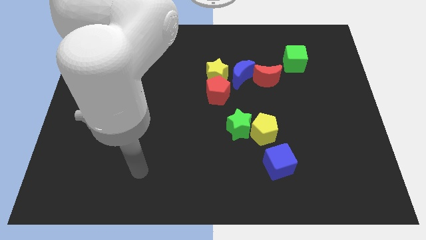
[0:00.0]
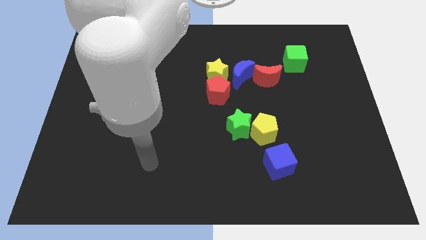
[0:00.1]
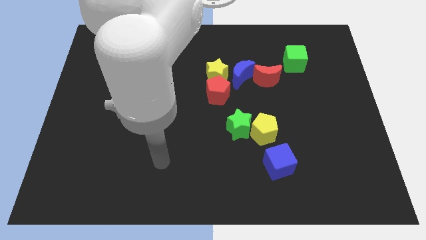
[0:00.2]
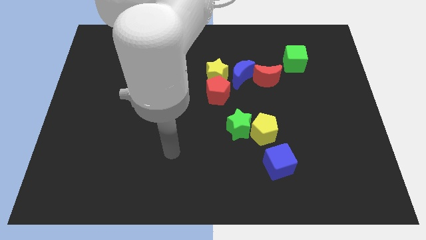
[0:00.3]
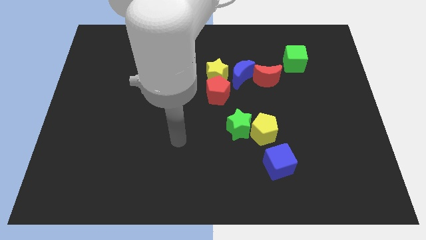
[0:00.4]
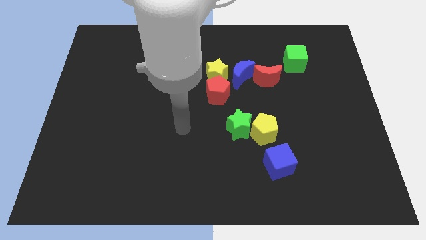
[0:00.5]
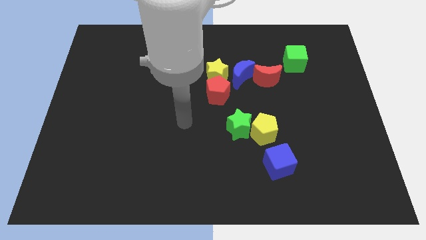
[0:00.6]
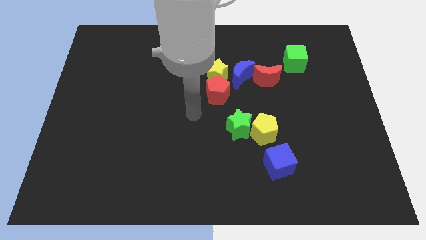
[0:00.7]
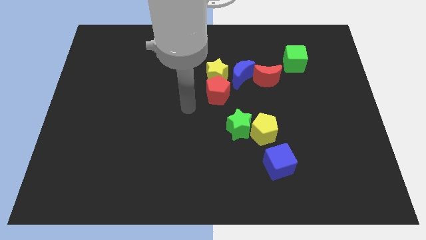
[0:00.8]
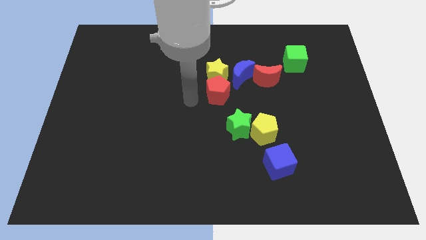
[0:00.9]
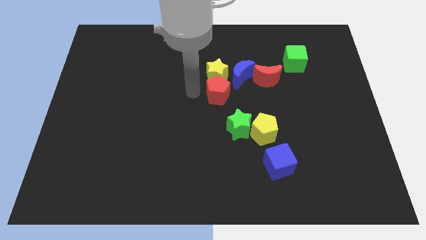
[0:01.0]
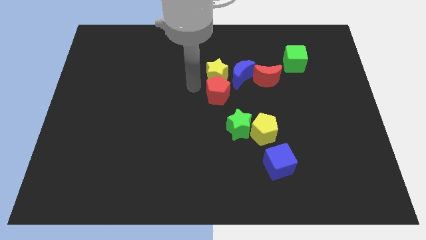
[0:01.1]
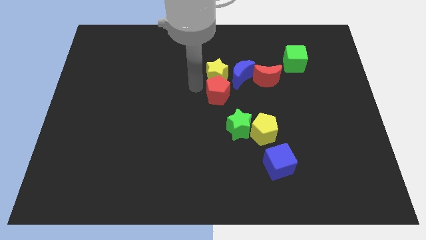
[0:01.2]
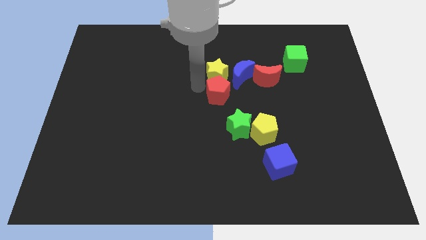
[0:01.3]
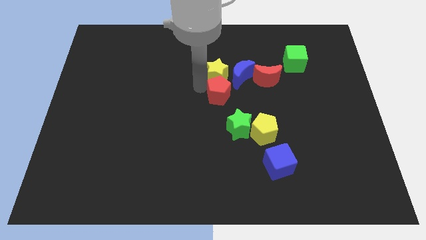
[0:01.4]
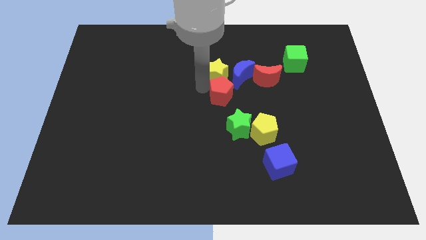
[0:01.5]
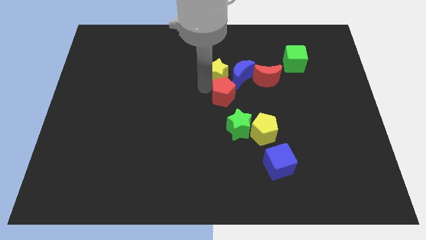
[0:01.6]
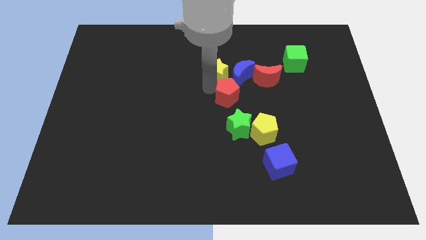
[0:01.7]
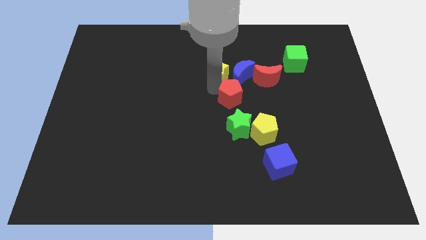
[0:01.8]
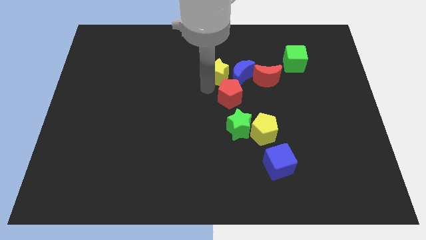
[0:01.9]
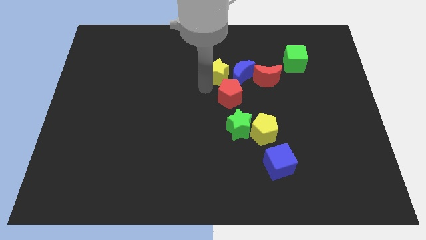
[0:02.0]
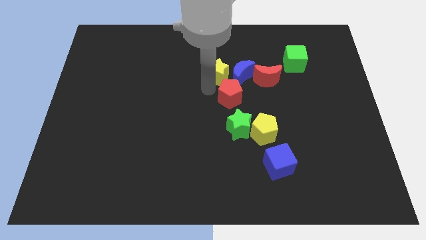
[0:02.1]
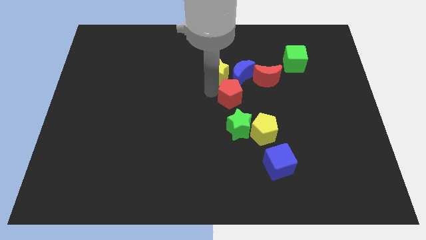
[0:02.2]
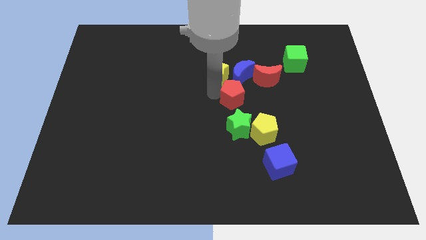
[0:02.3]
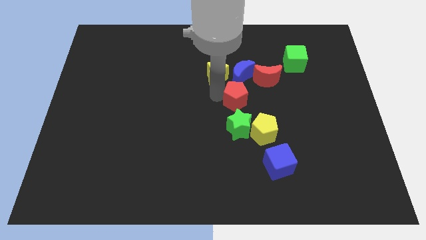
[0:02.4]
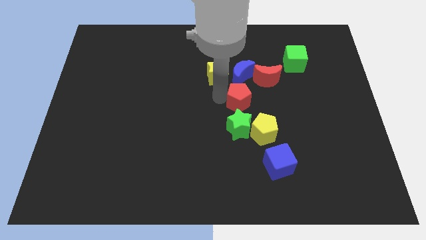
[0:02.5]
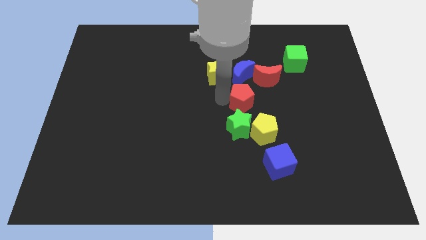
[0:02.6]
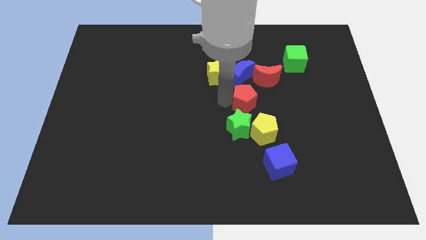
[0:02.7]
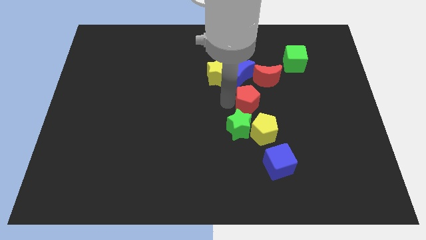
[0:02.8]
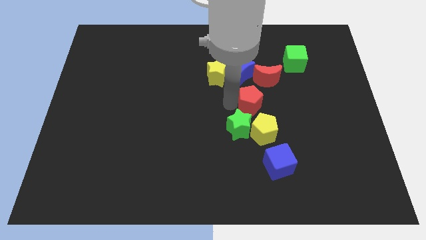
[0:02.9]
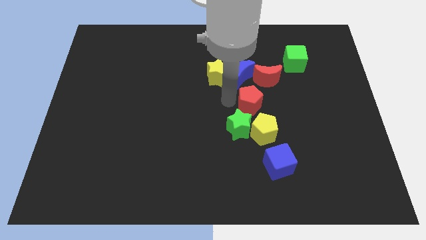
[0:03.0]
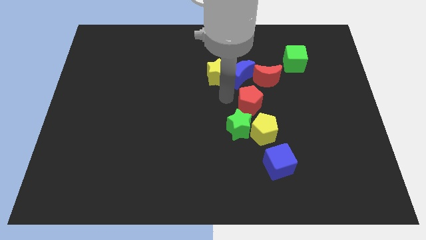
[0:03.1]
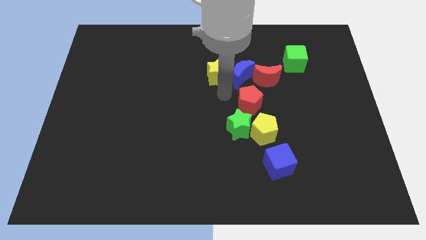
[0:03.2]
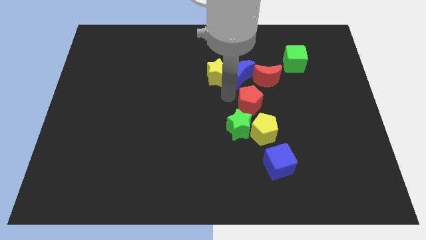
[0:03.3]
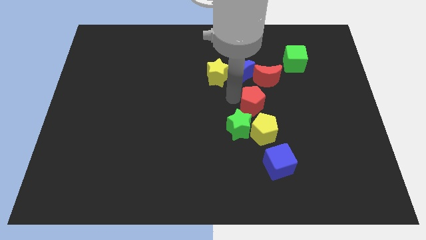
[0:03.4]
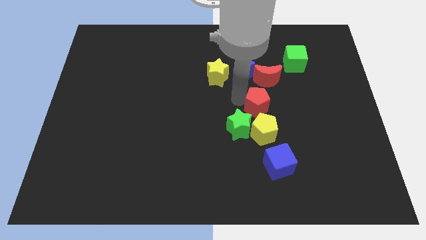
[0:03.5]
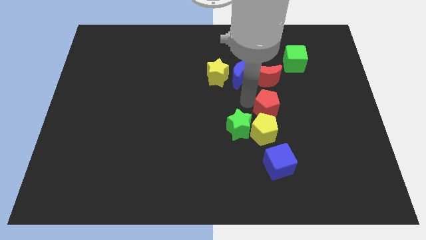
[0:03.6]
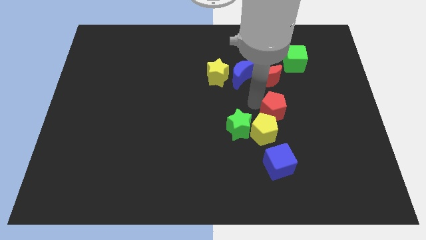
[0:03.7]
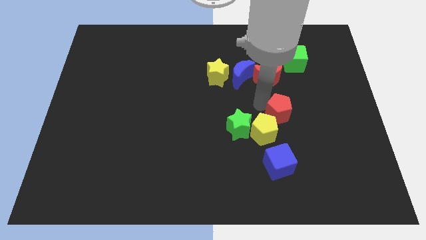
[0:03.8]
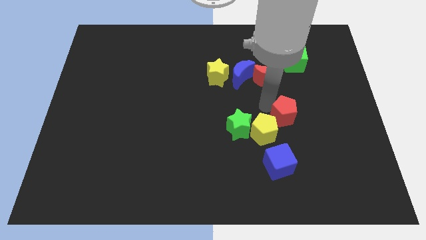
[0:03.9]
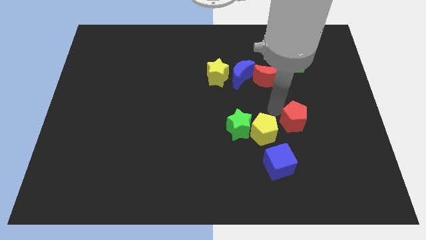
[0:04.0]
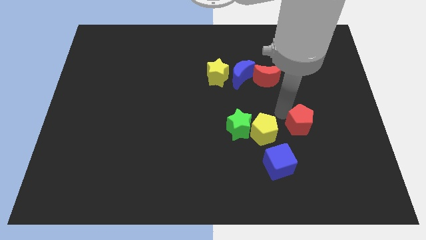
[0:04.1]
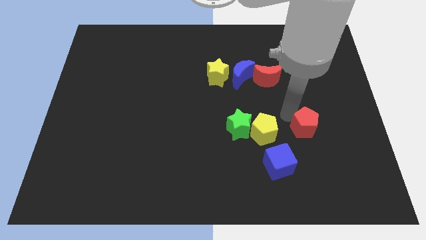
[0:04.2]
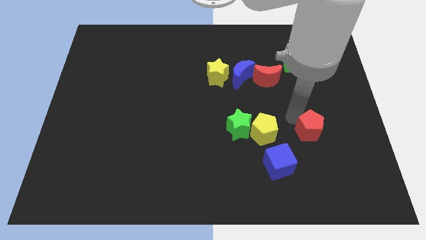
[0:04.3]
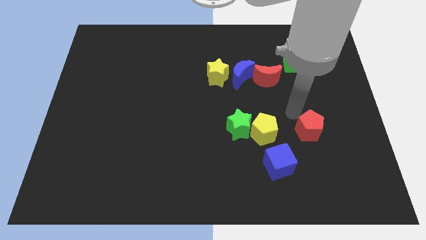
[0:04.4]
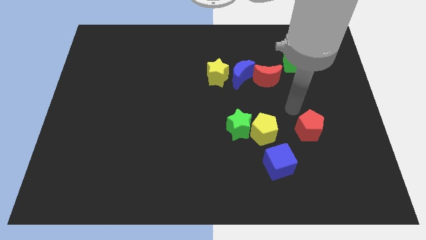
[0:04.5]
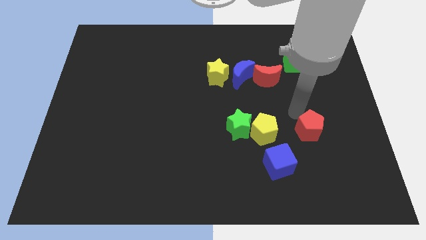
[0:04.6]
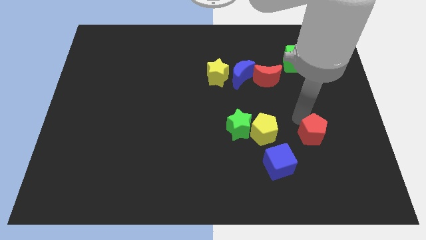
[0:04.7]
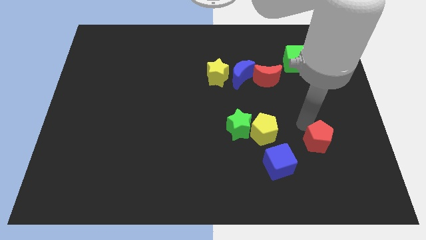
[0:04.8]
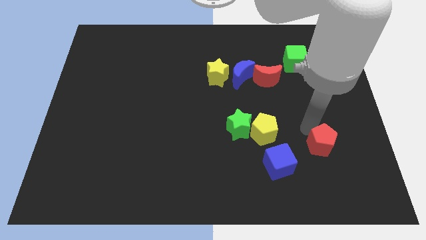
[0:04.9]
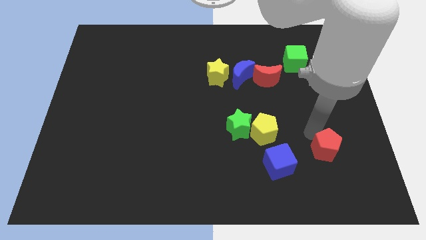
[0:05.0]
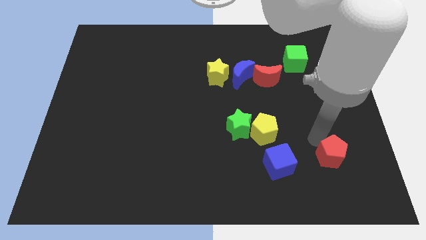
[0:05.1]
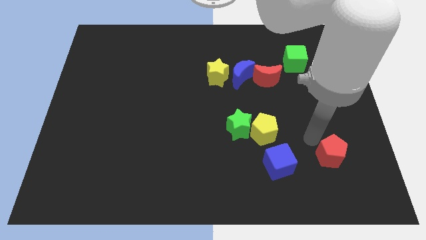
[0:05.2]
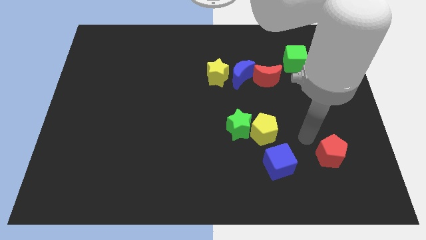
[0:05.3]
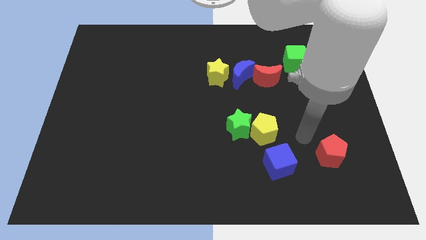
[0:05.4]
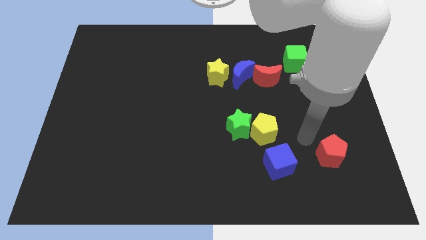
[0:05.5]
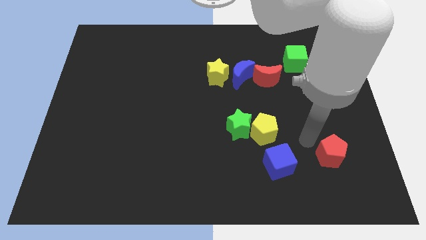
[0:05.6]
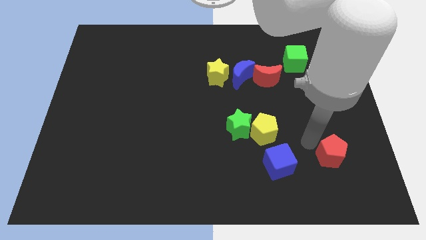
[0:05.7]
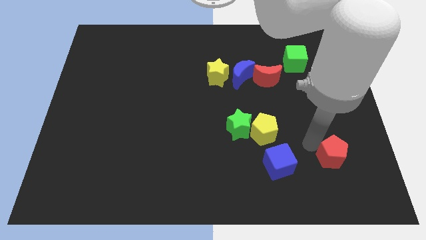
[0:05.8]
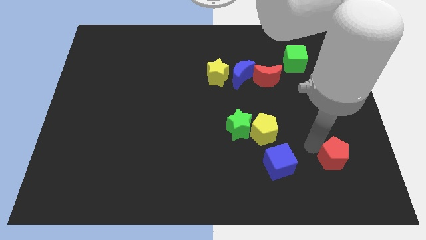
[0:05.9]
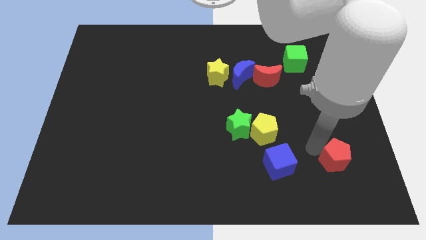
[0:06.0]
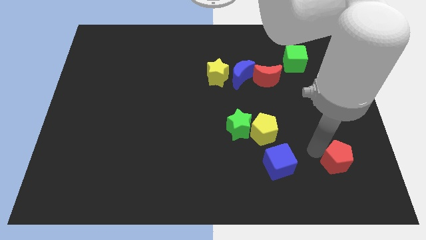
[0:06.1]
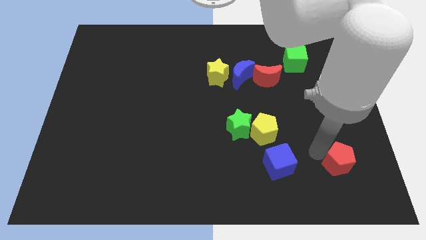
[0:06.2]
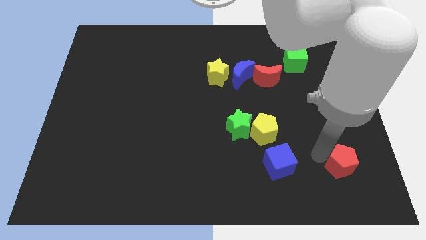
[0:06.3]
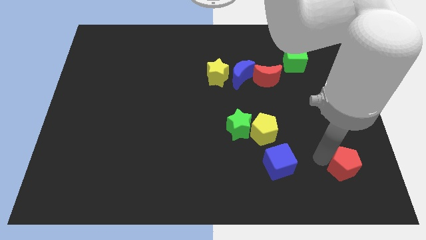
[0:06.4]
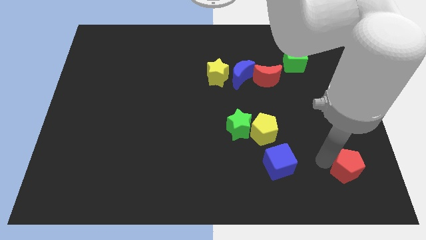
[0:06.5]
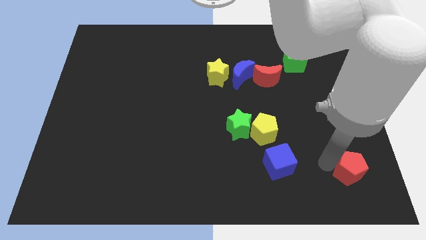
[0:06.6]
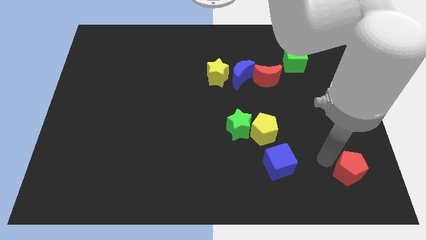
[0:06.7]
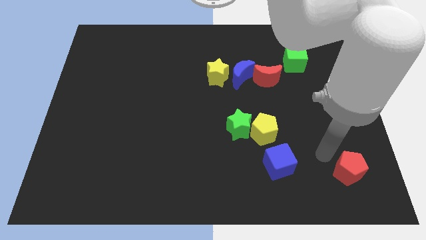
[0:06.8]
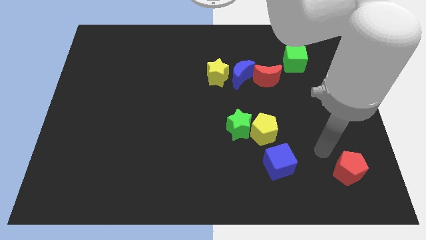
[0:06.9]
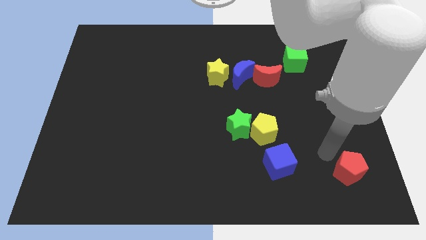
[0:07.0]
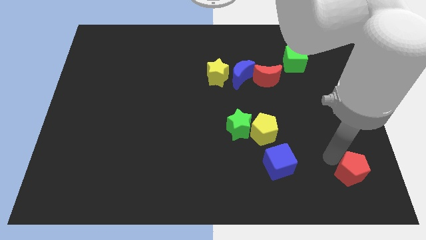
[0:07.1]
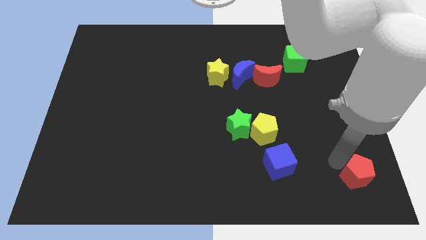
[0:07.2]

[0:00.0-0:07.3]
put the red pentagon to the bottom right

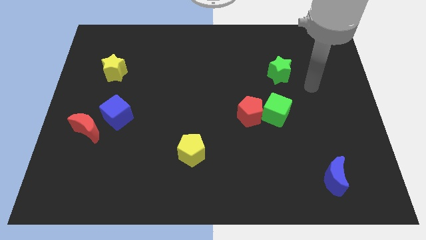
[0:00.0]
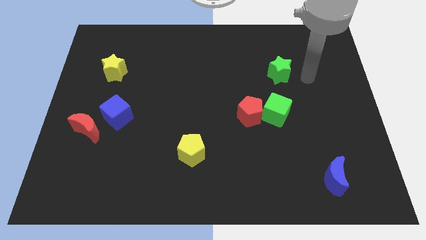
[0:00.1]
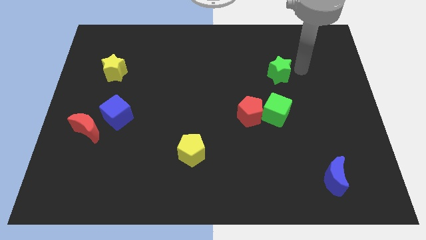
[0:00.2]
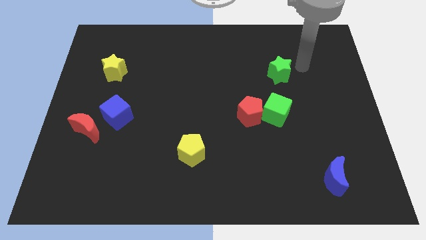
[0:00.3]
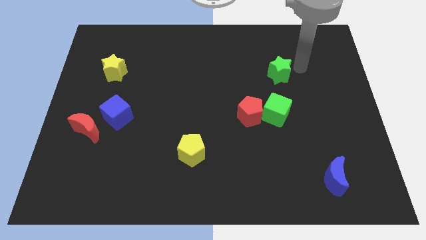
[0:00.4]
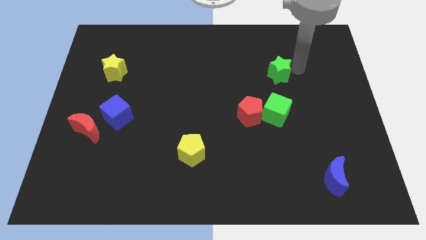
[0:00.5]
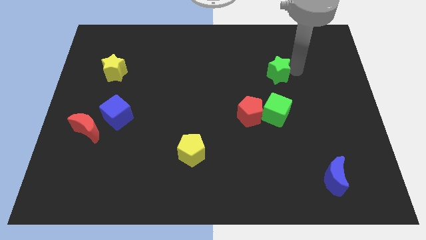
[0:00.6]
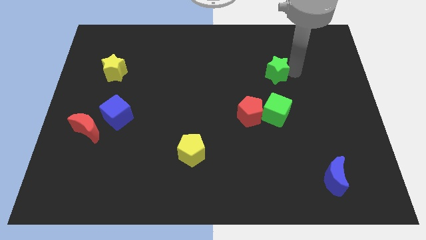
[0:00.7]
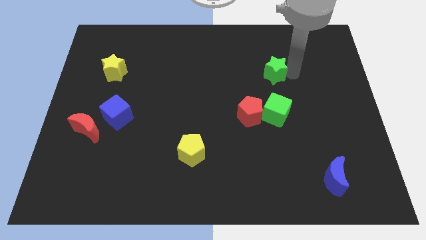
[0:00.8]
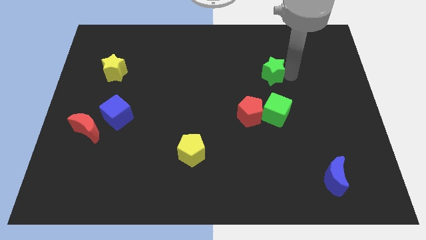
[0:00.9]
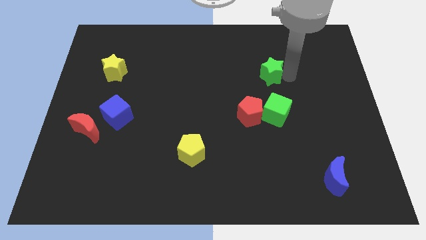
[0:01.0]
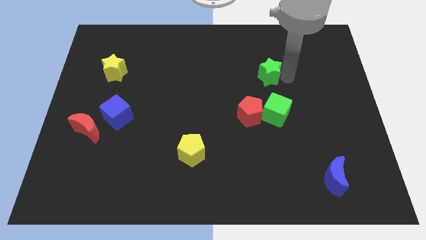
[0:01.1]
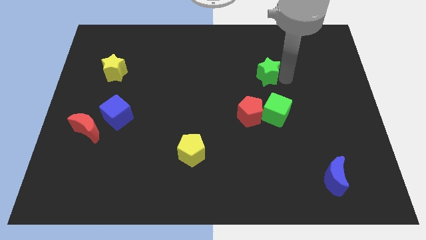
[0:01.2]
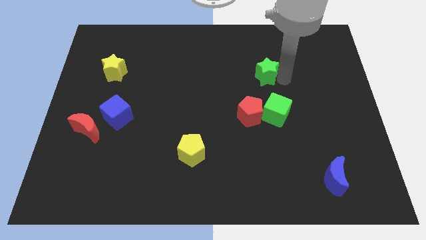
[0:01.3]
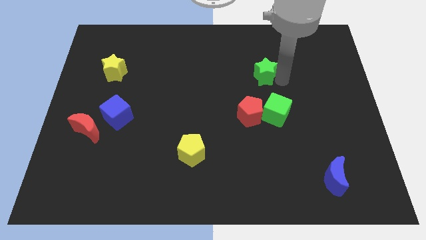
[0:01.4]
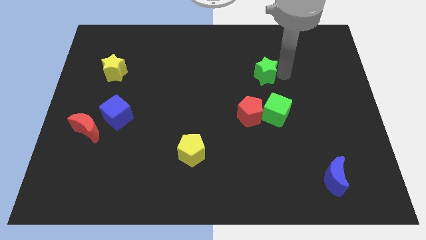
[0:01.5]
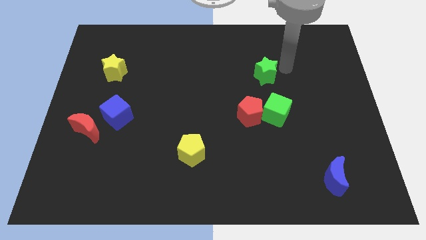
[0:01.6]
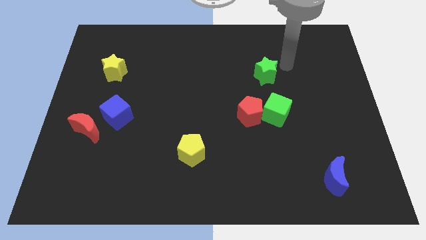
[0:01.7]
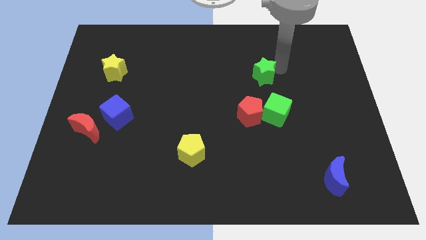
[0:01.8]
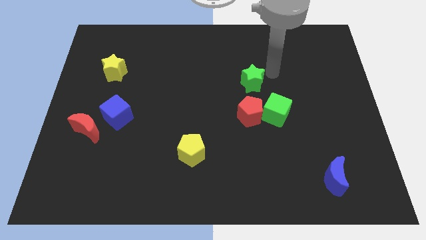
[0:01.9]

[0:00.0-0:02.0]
move the green star to the middle
